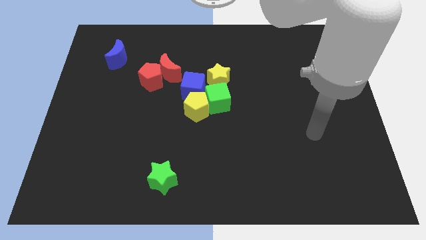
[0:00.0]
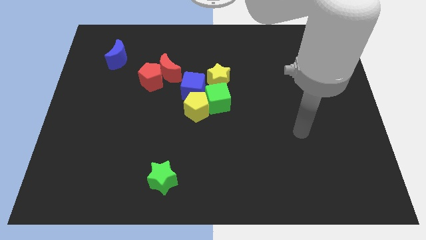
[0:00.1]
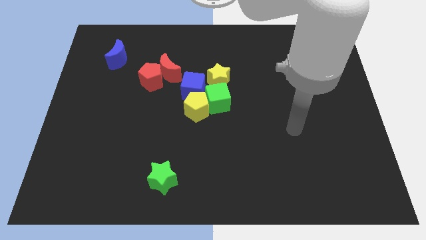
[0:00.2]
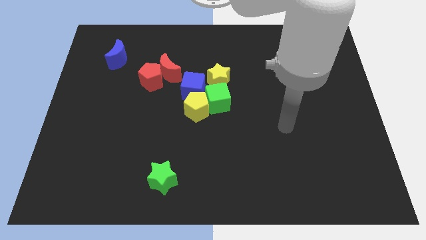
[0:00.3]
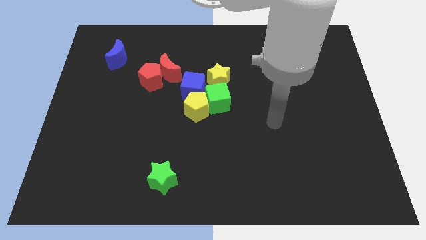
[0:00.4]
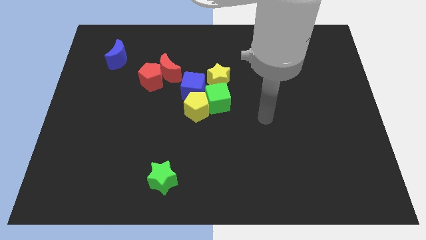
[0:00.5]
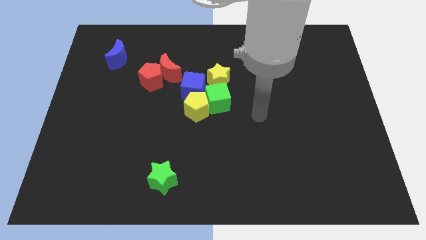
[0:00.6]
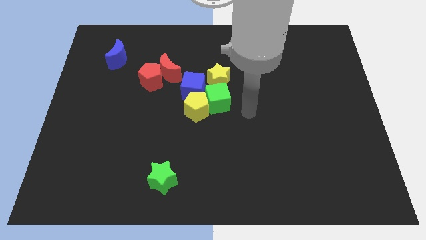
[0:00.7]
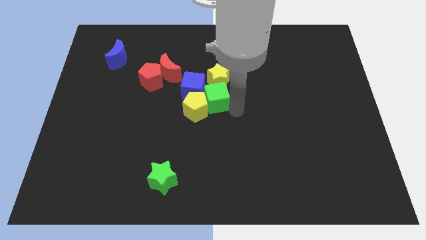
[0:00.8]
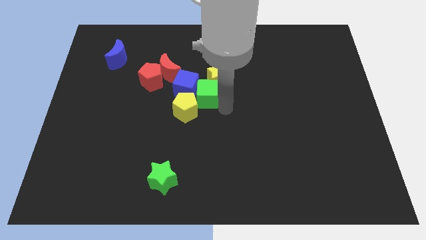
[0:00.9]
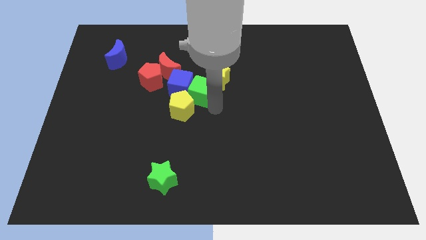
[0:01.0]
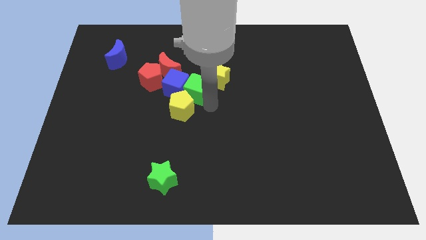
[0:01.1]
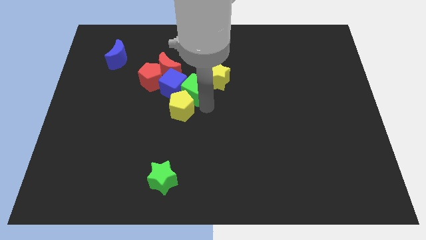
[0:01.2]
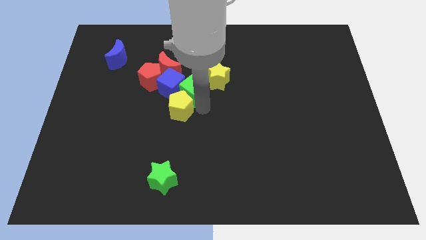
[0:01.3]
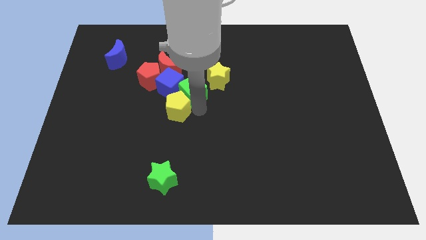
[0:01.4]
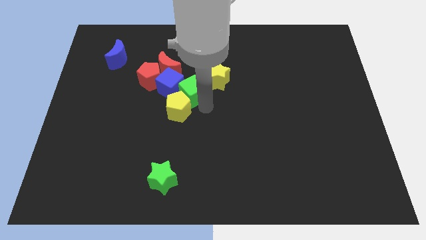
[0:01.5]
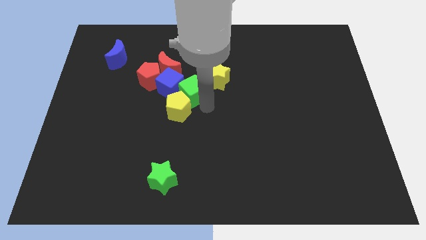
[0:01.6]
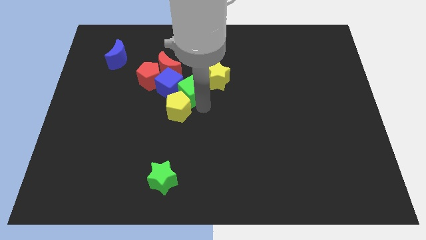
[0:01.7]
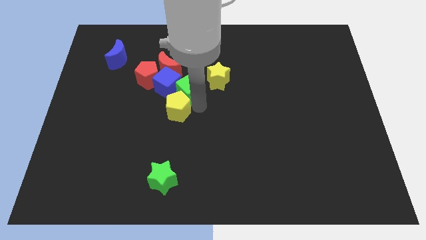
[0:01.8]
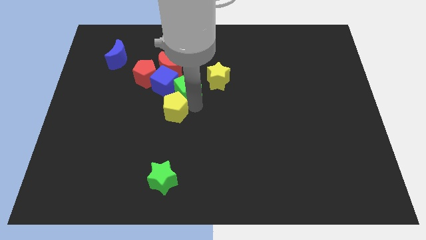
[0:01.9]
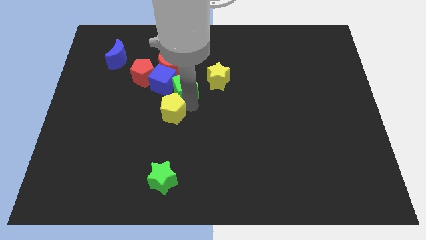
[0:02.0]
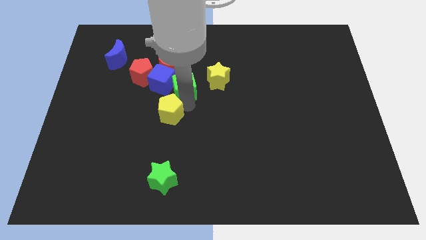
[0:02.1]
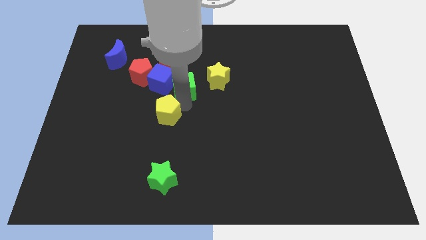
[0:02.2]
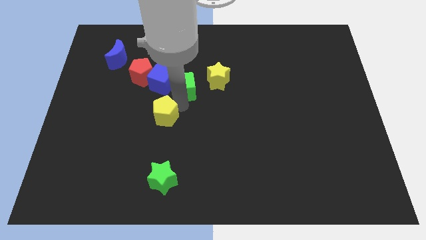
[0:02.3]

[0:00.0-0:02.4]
push the yellow pentagon to the left a little bit

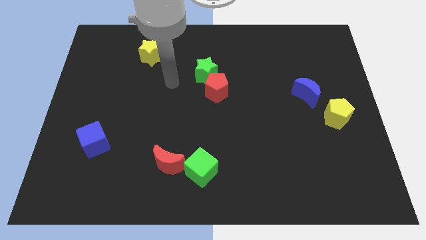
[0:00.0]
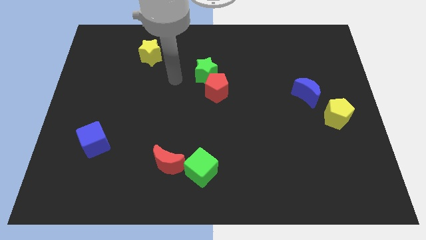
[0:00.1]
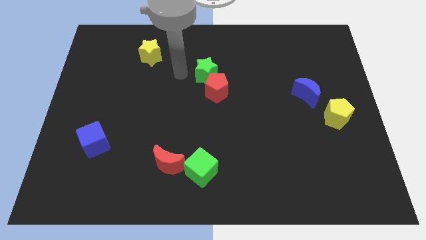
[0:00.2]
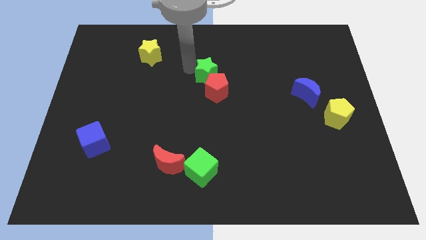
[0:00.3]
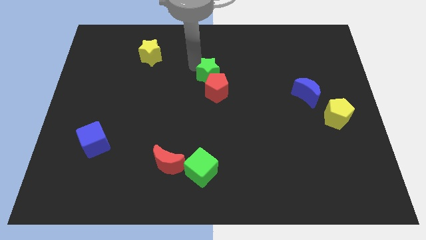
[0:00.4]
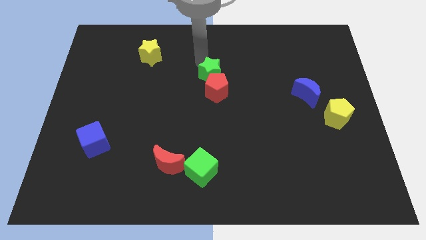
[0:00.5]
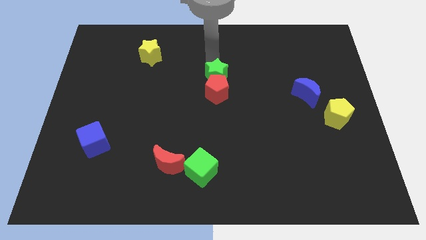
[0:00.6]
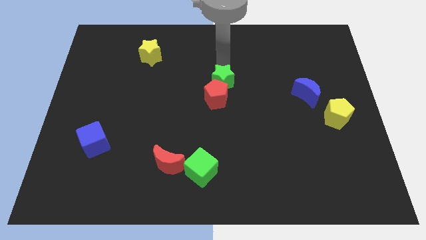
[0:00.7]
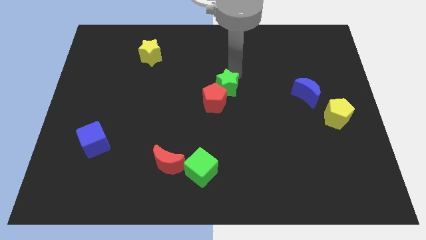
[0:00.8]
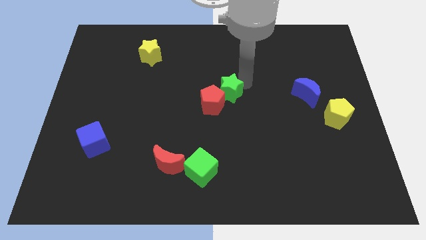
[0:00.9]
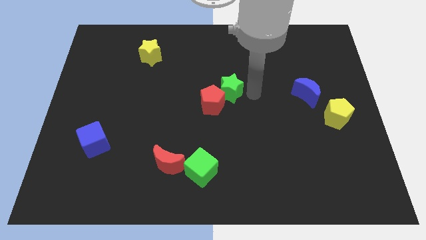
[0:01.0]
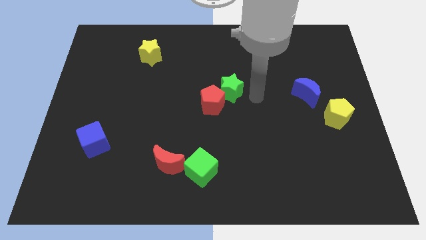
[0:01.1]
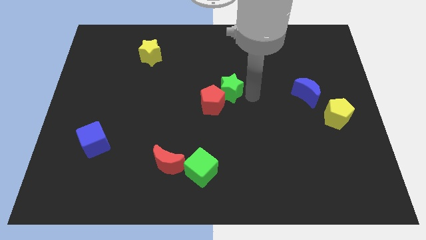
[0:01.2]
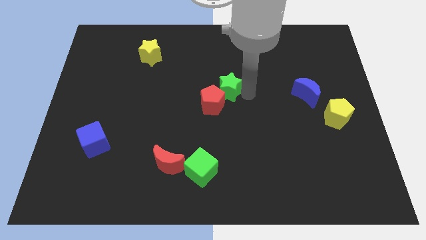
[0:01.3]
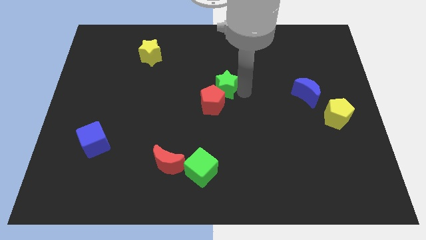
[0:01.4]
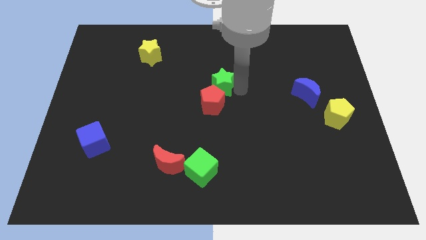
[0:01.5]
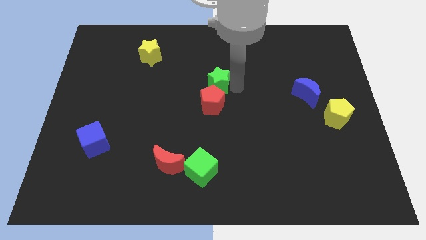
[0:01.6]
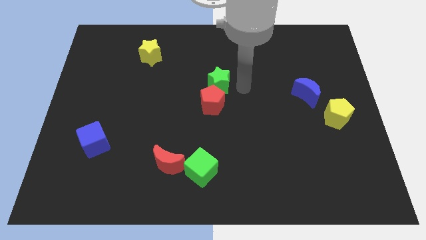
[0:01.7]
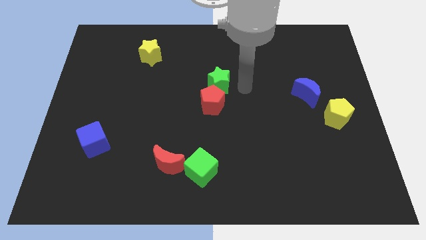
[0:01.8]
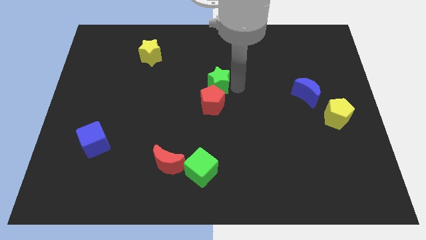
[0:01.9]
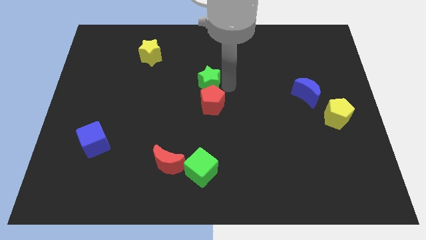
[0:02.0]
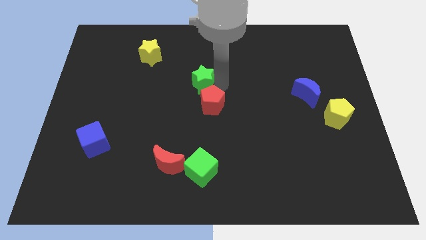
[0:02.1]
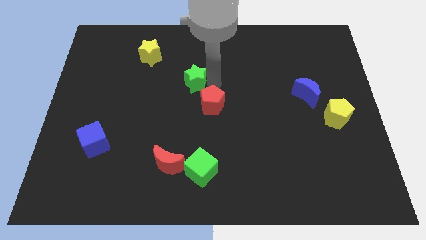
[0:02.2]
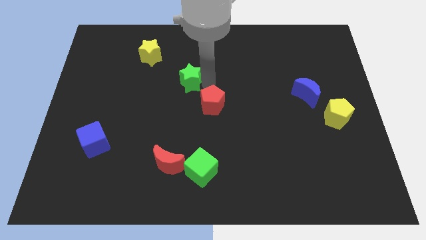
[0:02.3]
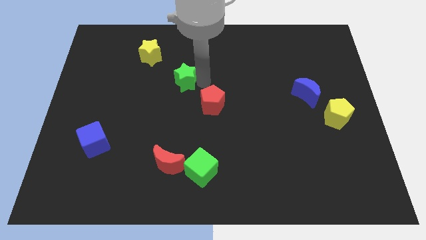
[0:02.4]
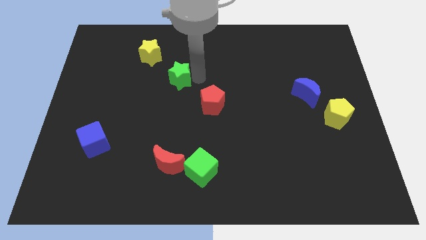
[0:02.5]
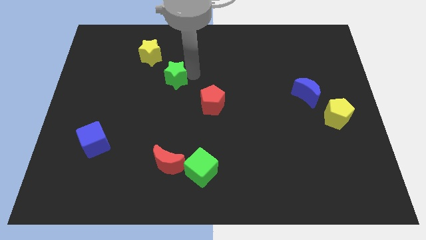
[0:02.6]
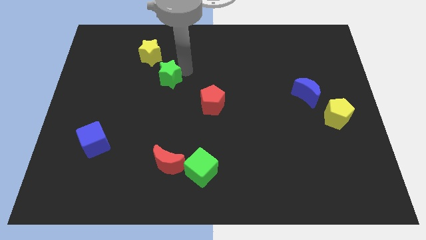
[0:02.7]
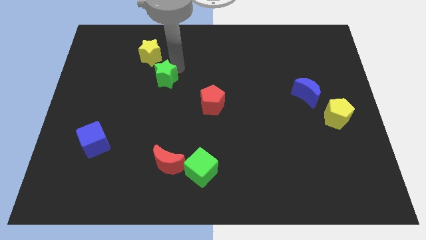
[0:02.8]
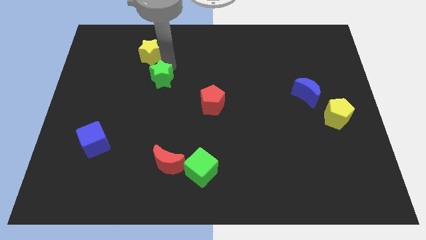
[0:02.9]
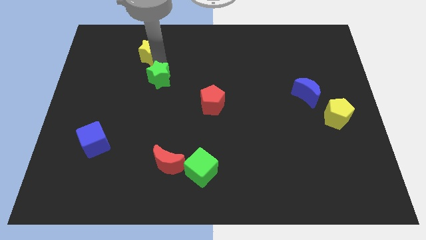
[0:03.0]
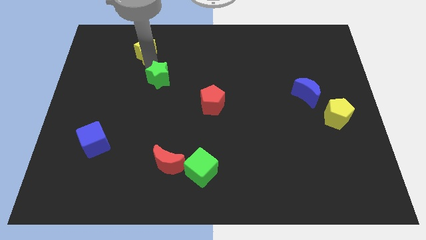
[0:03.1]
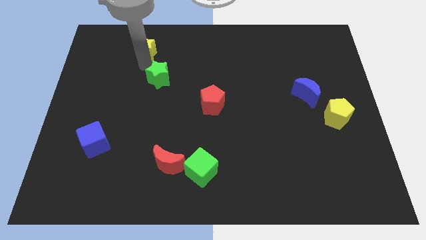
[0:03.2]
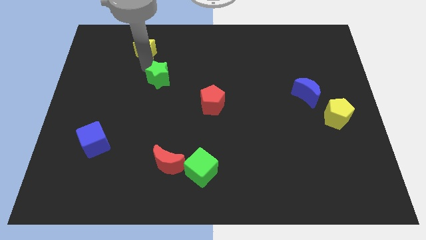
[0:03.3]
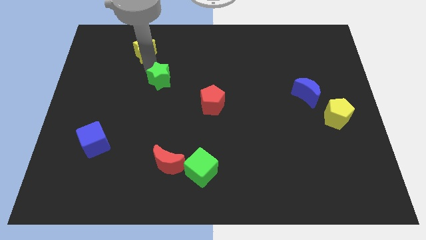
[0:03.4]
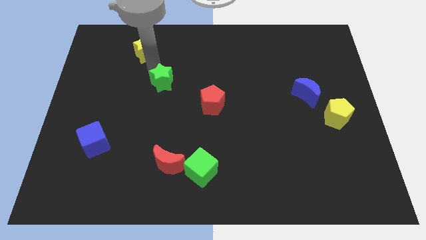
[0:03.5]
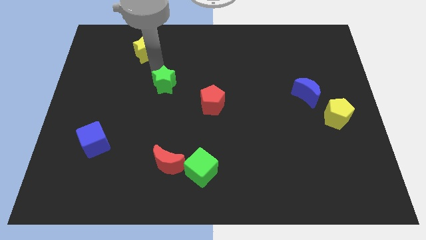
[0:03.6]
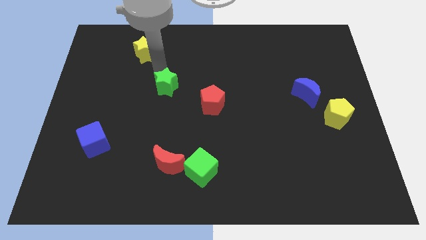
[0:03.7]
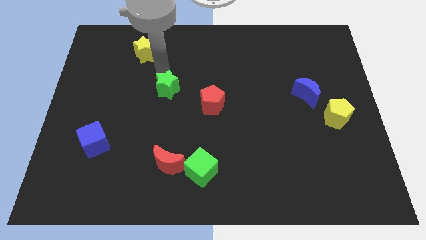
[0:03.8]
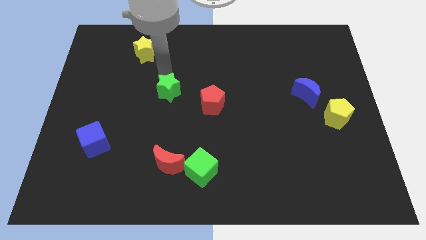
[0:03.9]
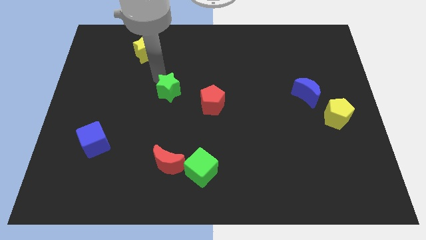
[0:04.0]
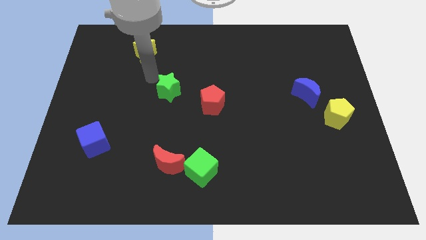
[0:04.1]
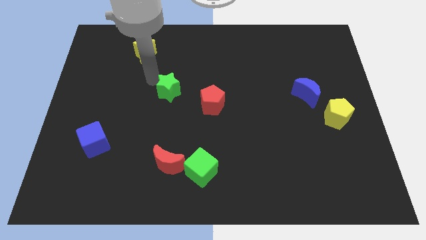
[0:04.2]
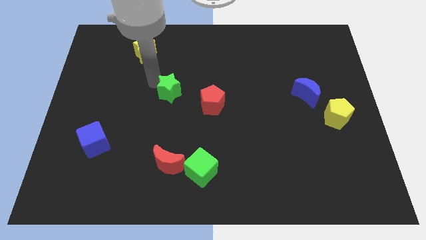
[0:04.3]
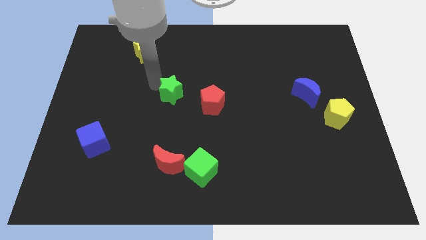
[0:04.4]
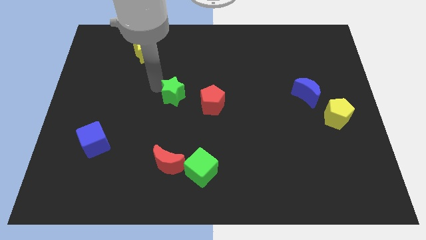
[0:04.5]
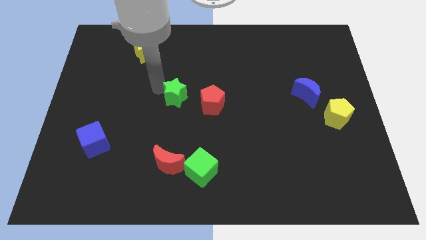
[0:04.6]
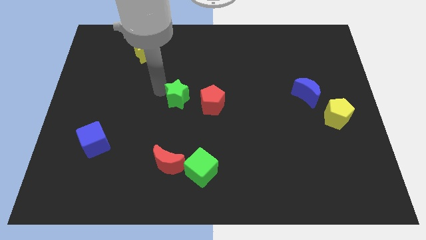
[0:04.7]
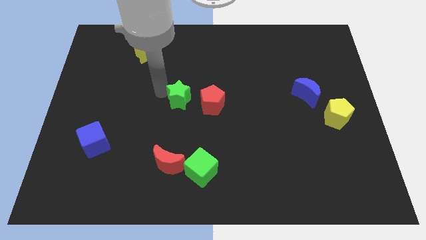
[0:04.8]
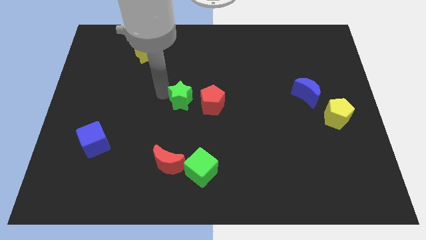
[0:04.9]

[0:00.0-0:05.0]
push the green star somewhat downwards

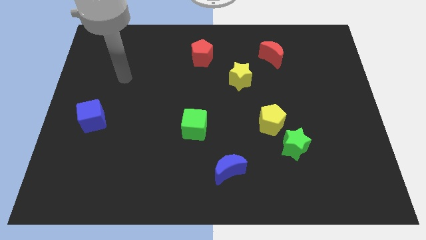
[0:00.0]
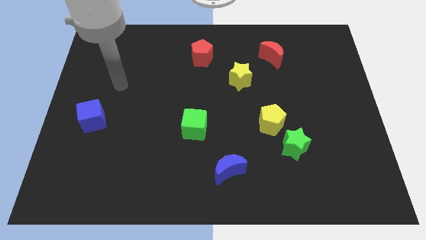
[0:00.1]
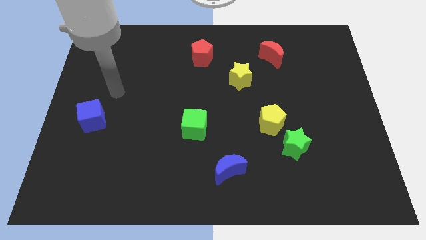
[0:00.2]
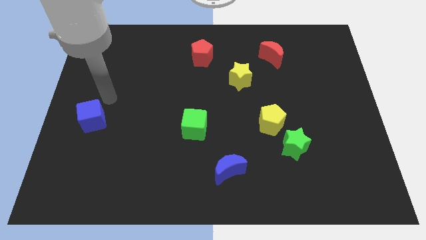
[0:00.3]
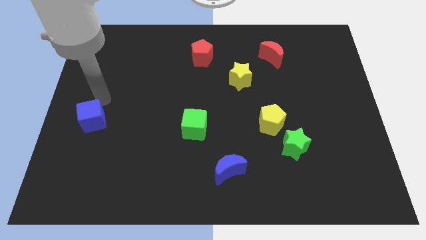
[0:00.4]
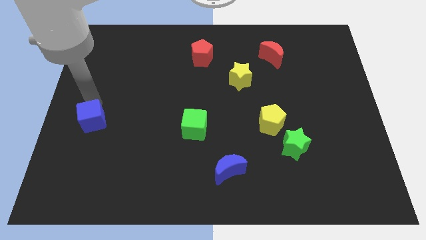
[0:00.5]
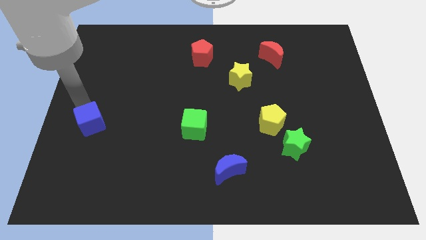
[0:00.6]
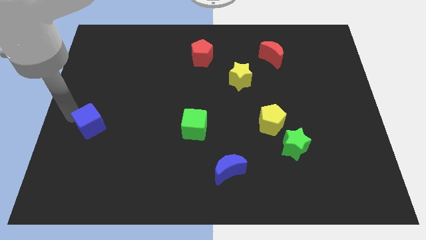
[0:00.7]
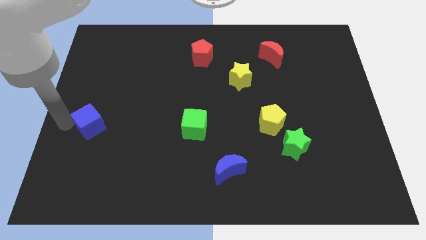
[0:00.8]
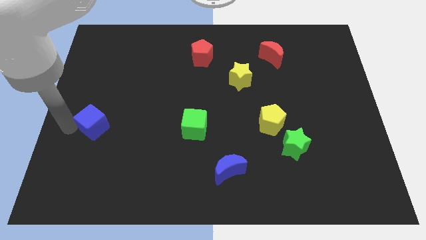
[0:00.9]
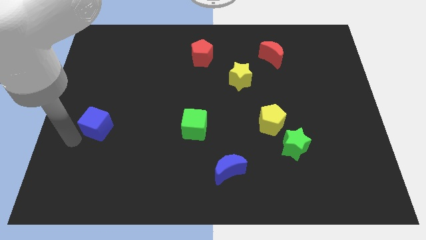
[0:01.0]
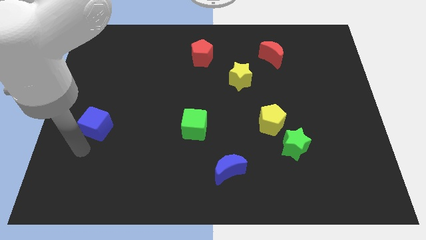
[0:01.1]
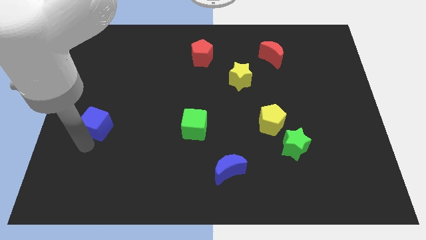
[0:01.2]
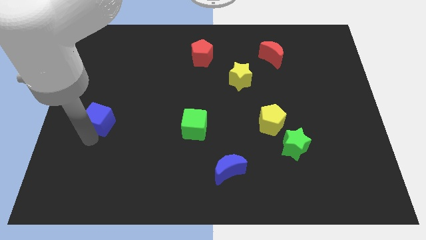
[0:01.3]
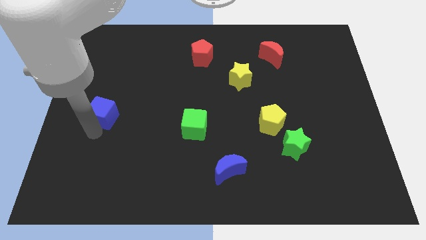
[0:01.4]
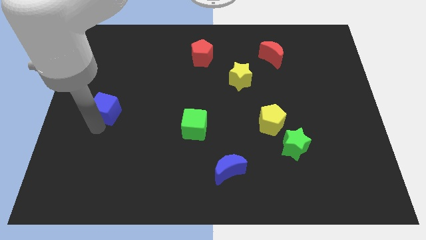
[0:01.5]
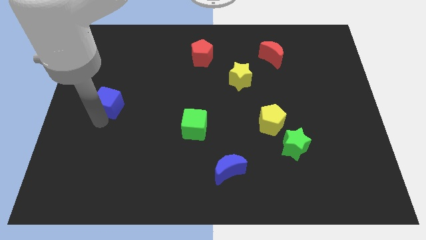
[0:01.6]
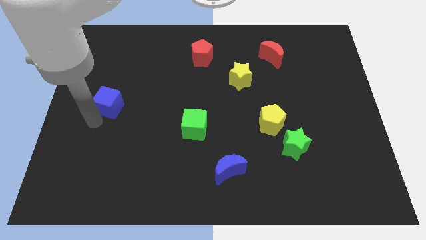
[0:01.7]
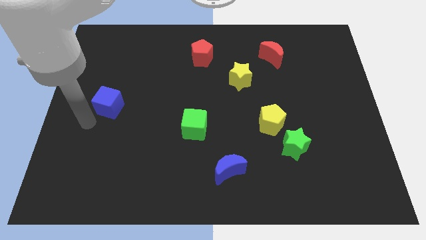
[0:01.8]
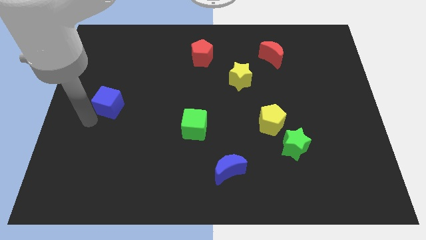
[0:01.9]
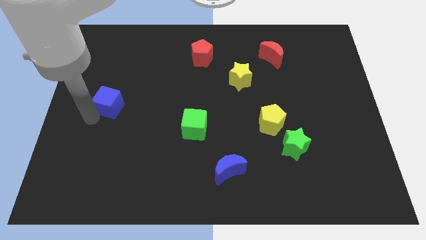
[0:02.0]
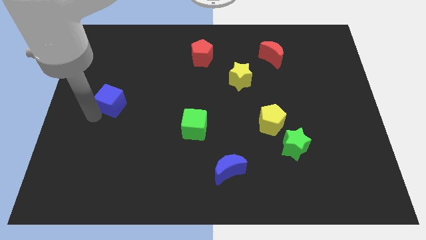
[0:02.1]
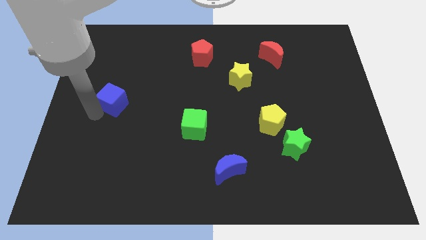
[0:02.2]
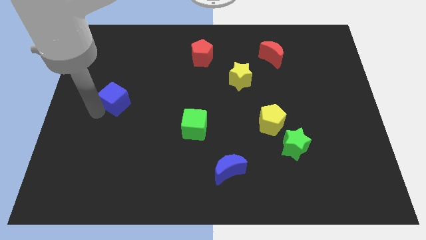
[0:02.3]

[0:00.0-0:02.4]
move the blue cube a bit diagonally upwards and to the right
